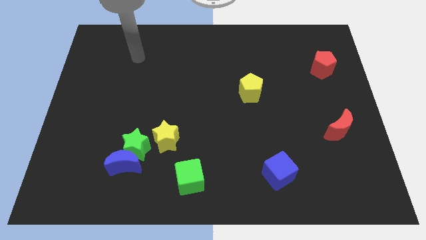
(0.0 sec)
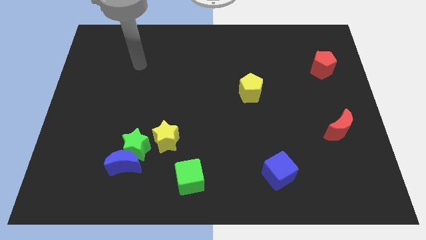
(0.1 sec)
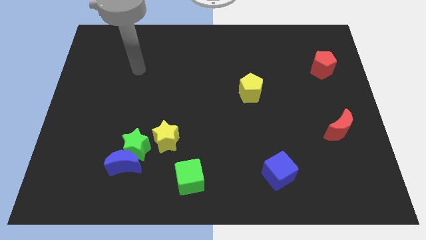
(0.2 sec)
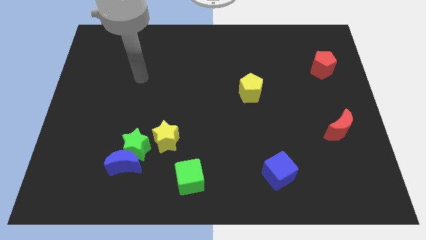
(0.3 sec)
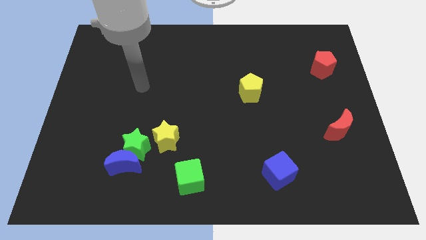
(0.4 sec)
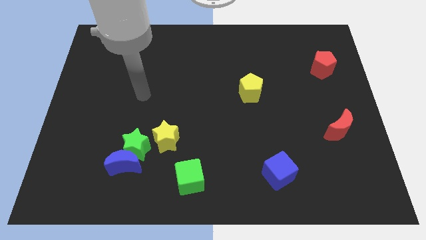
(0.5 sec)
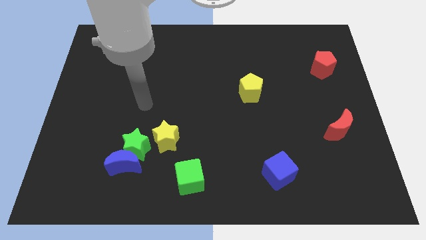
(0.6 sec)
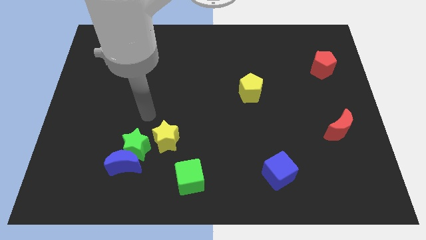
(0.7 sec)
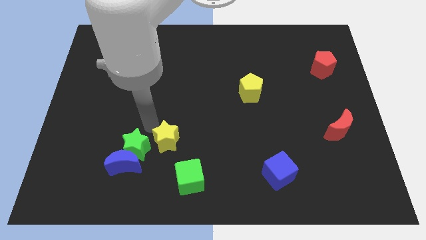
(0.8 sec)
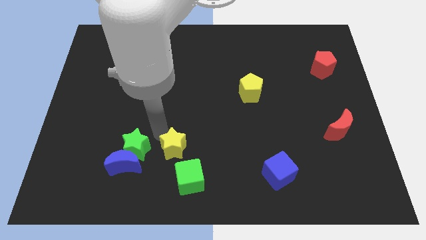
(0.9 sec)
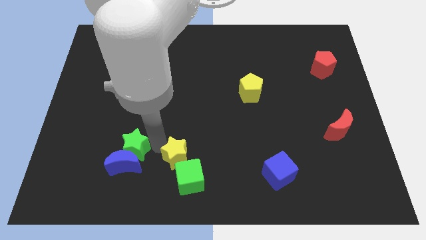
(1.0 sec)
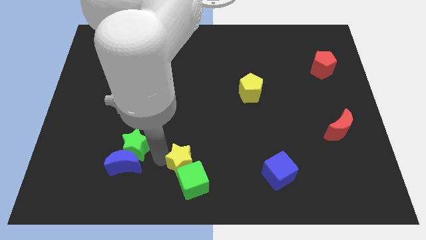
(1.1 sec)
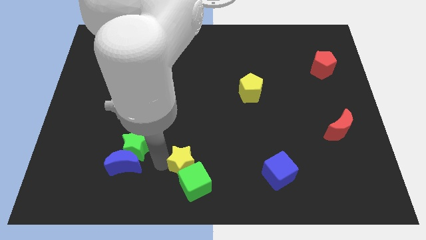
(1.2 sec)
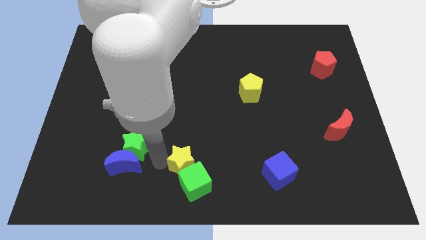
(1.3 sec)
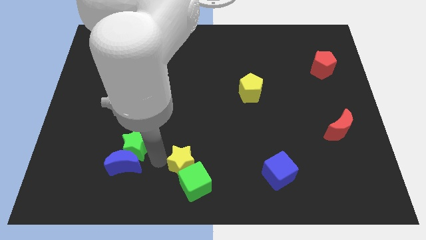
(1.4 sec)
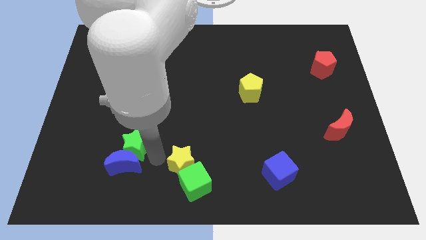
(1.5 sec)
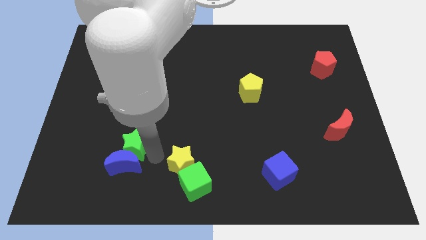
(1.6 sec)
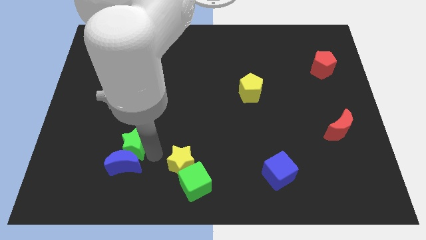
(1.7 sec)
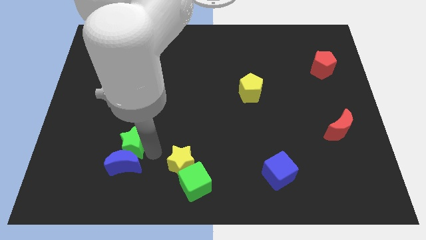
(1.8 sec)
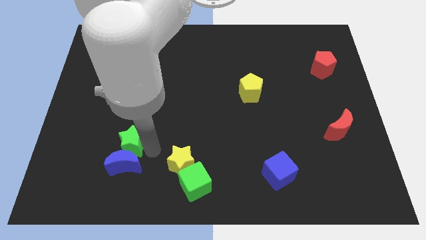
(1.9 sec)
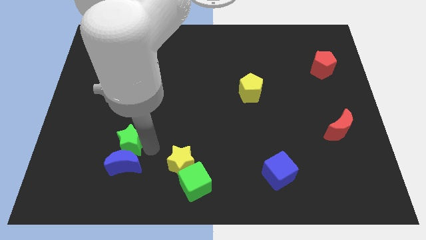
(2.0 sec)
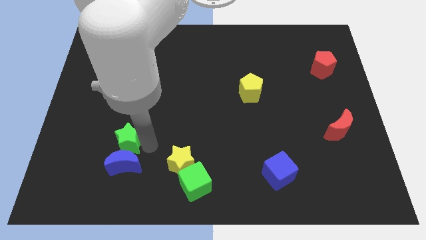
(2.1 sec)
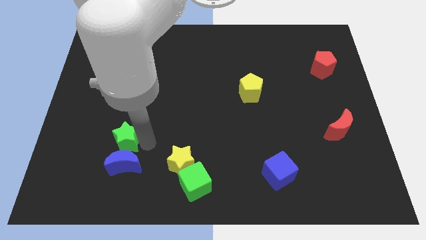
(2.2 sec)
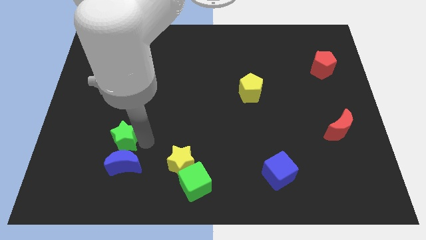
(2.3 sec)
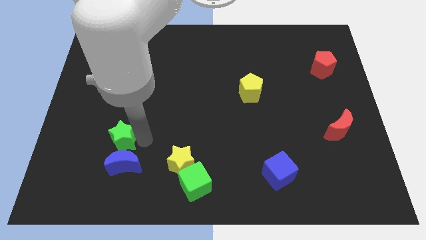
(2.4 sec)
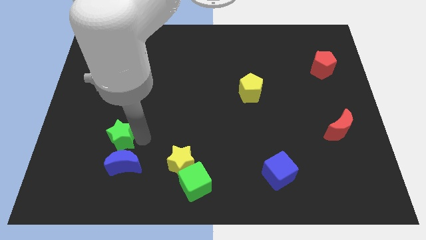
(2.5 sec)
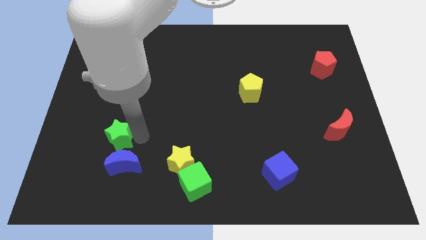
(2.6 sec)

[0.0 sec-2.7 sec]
move the green star away from the blue moon and yellow star

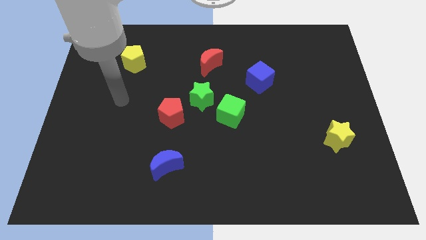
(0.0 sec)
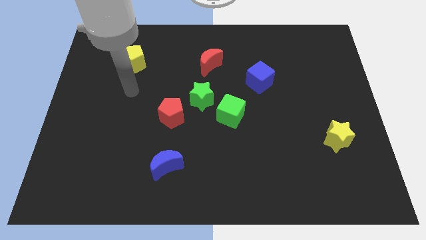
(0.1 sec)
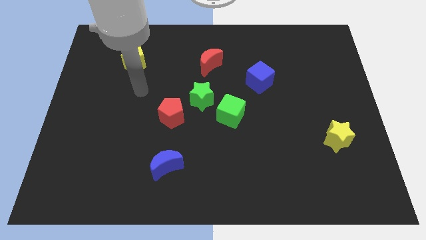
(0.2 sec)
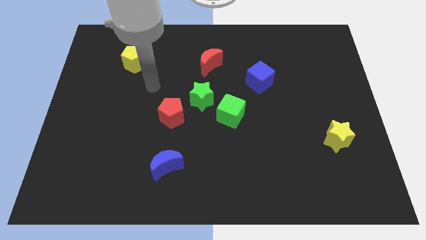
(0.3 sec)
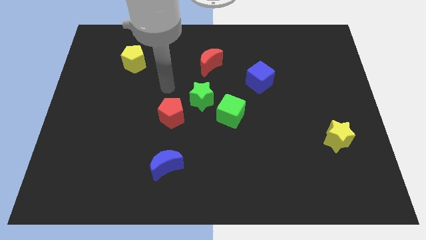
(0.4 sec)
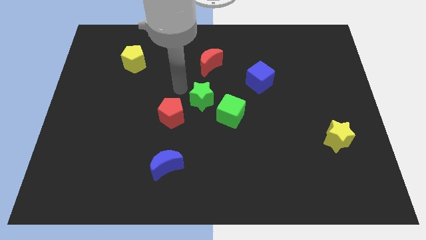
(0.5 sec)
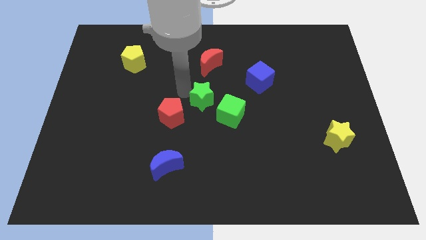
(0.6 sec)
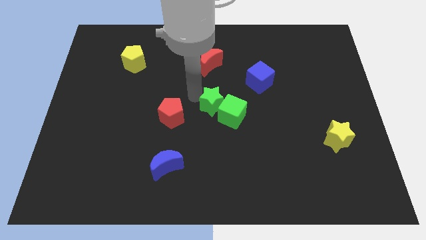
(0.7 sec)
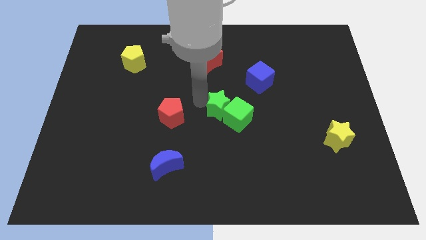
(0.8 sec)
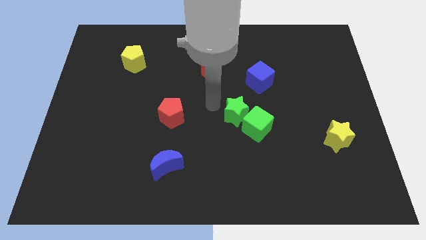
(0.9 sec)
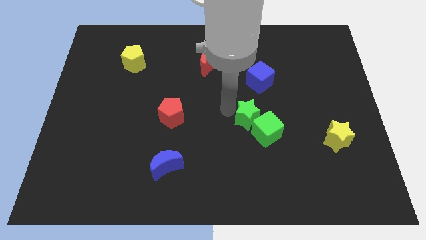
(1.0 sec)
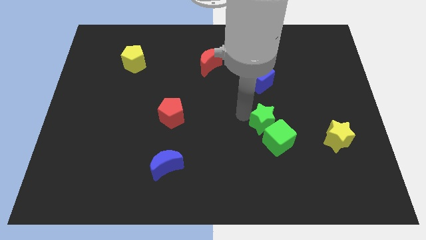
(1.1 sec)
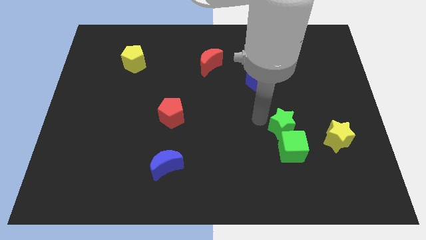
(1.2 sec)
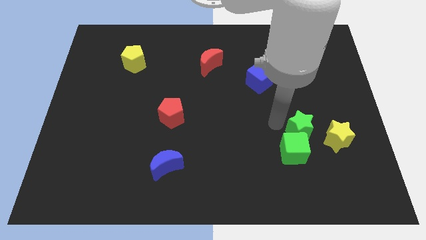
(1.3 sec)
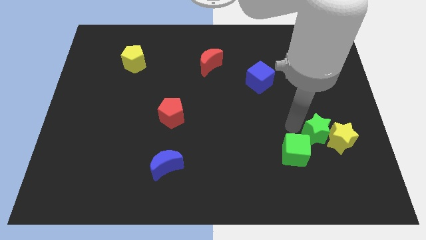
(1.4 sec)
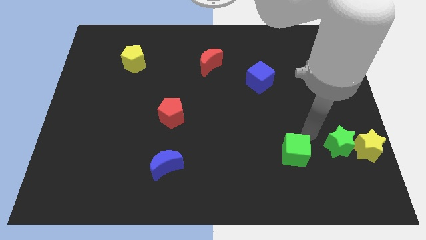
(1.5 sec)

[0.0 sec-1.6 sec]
pull the green cube apart from the green star

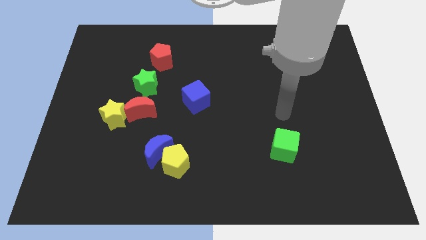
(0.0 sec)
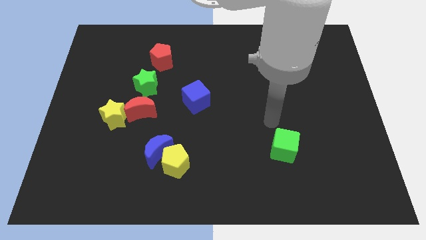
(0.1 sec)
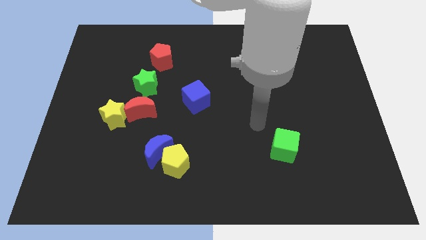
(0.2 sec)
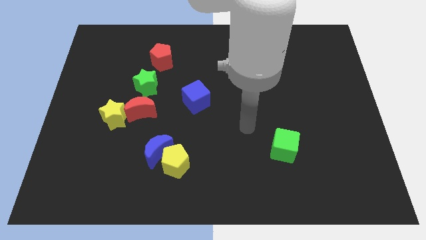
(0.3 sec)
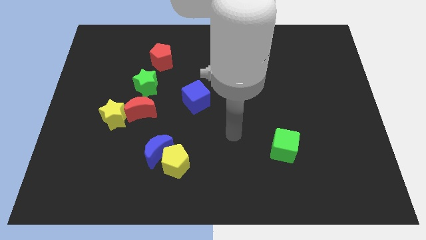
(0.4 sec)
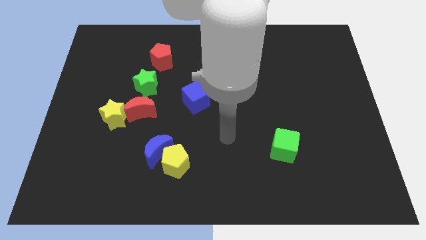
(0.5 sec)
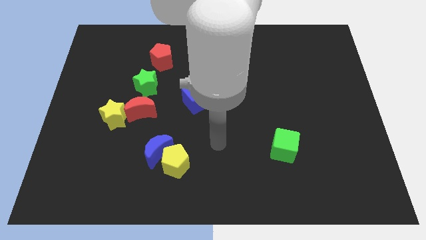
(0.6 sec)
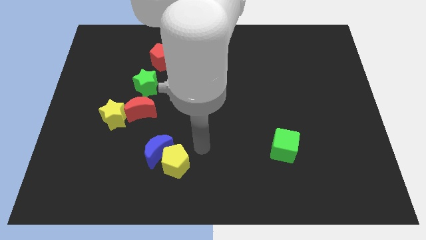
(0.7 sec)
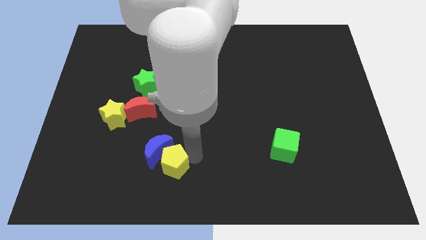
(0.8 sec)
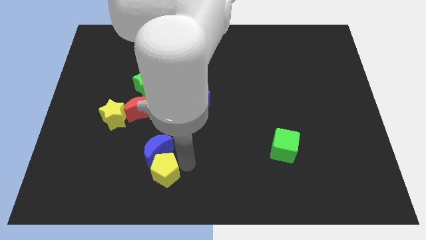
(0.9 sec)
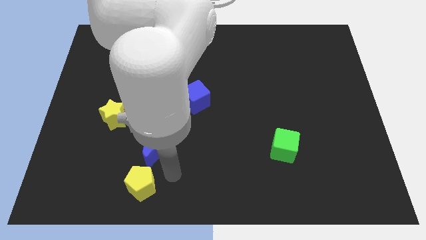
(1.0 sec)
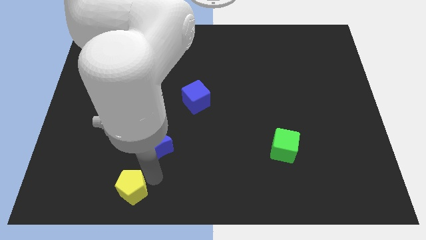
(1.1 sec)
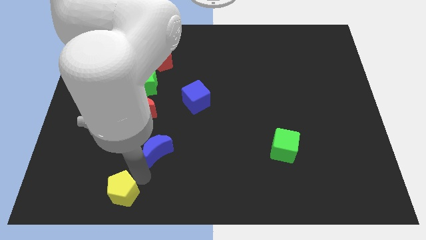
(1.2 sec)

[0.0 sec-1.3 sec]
pull the blue moon apart from the yellow pentagon

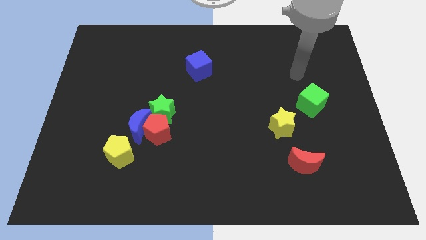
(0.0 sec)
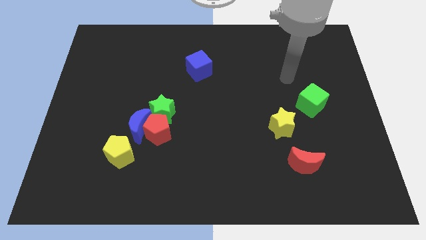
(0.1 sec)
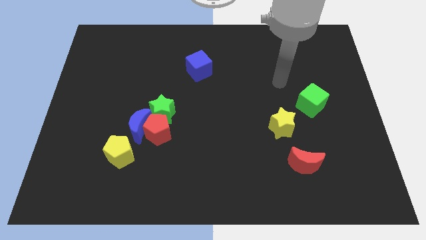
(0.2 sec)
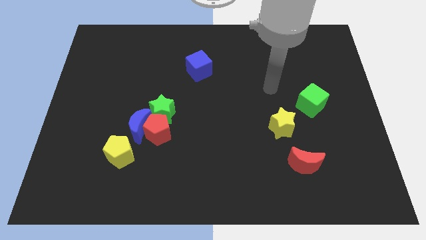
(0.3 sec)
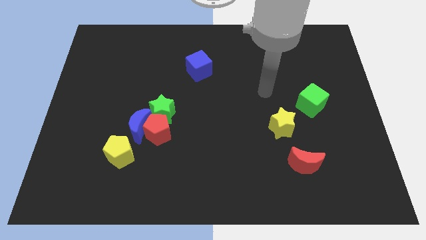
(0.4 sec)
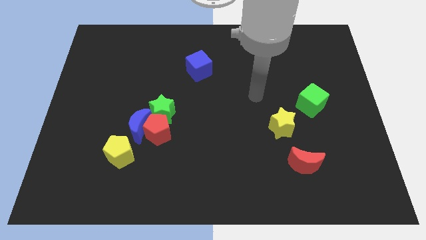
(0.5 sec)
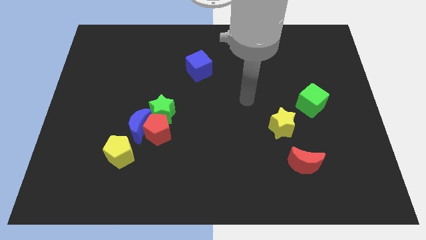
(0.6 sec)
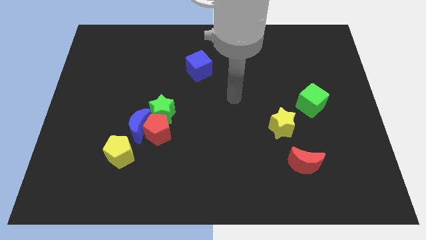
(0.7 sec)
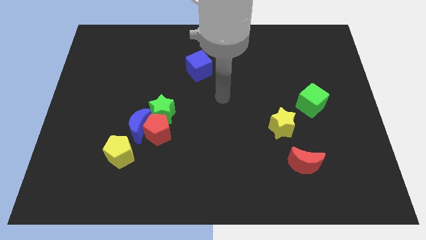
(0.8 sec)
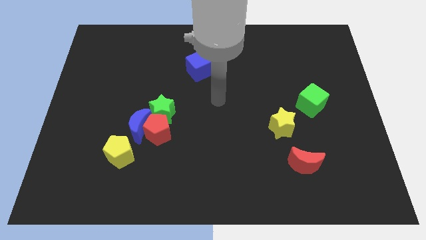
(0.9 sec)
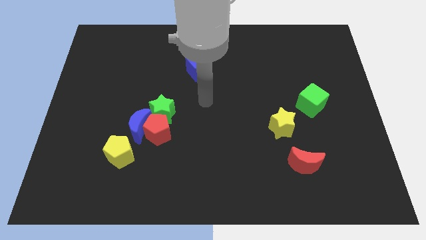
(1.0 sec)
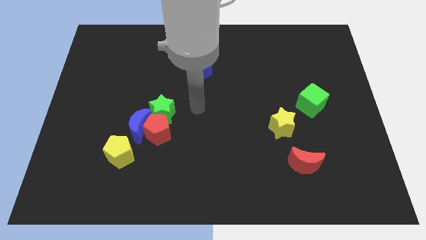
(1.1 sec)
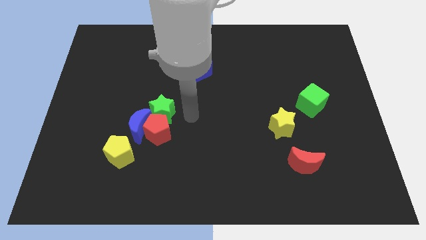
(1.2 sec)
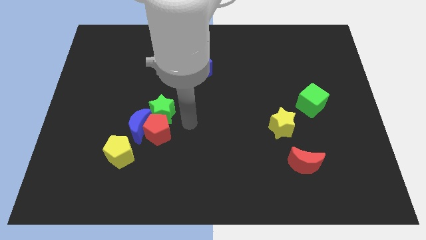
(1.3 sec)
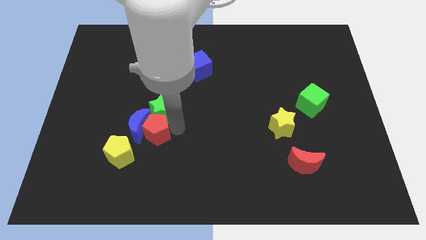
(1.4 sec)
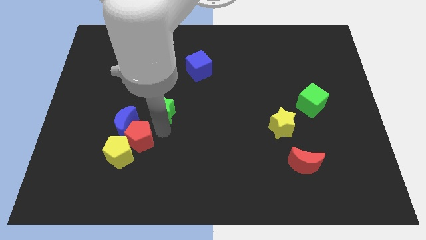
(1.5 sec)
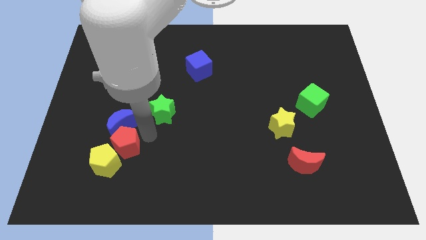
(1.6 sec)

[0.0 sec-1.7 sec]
separate the green star from the red pentagon and blue moon

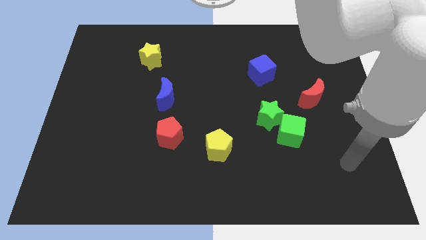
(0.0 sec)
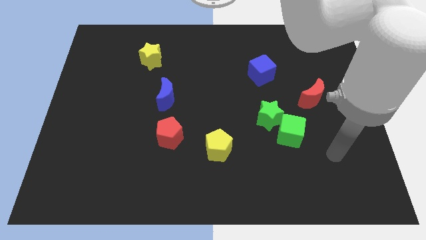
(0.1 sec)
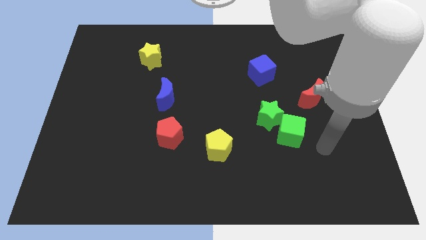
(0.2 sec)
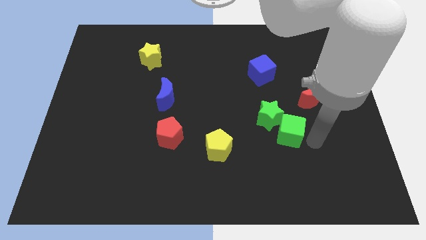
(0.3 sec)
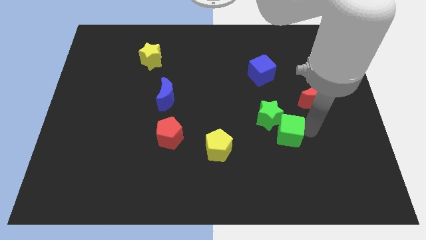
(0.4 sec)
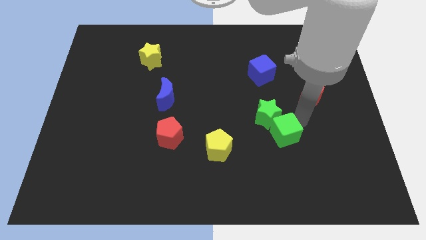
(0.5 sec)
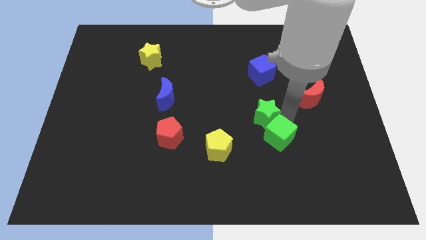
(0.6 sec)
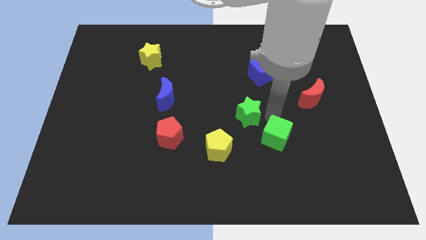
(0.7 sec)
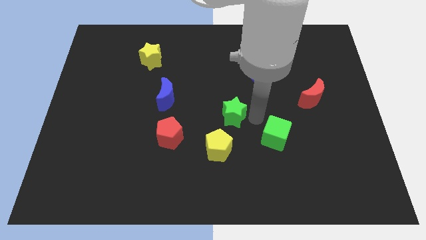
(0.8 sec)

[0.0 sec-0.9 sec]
separate the green cube from the green star

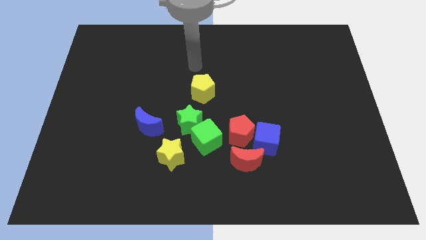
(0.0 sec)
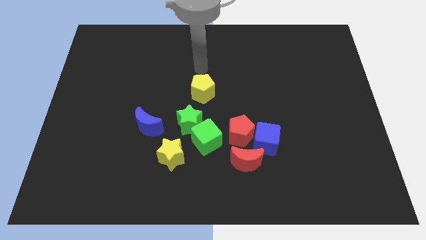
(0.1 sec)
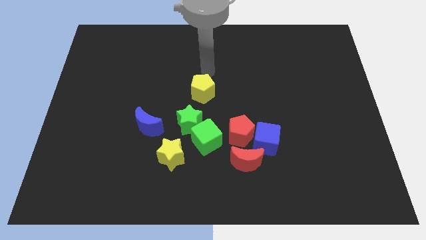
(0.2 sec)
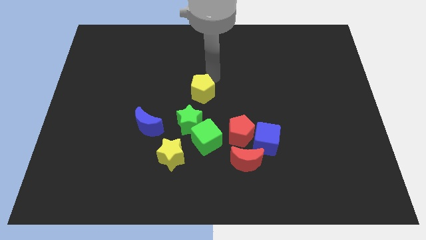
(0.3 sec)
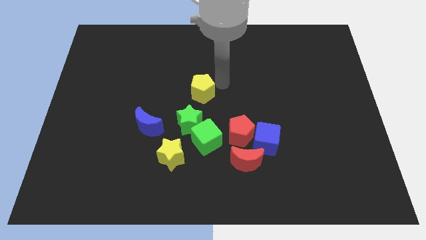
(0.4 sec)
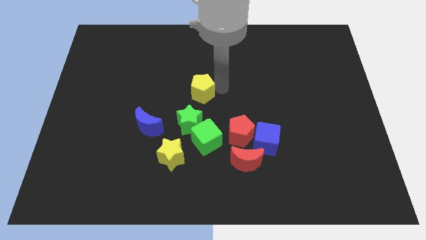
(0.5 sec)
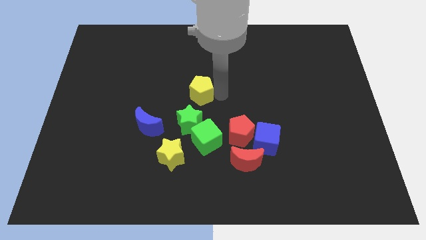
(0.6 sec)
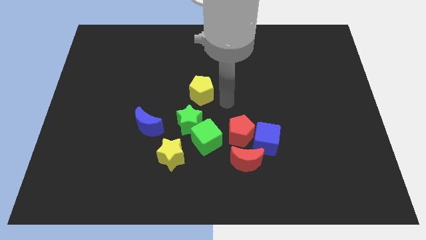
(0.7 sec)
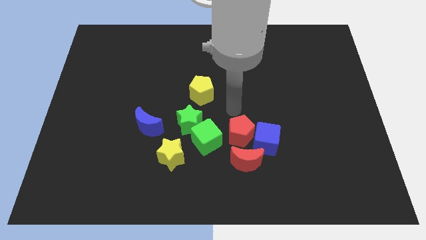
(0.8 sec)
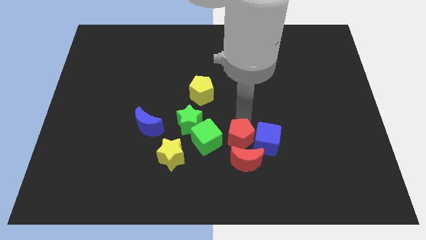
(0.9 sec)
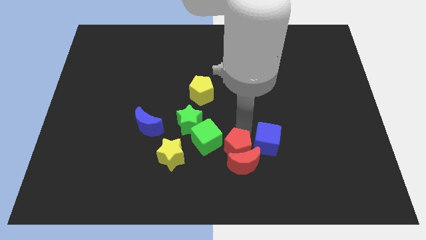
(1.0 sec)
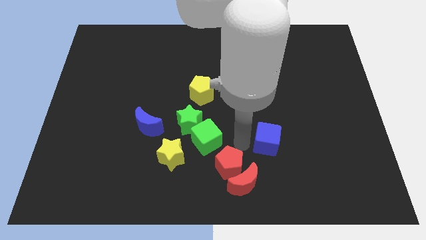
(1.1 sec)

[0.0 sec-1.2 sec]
pull the blue cube apart from the red pentagon and red moon
